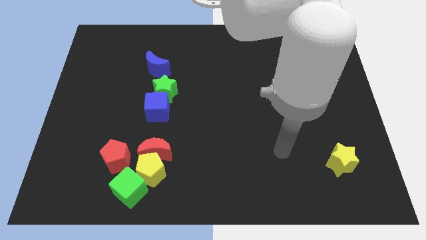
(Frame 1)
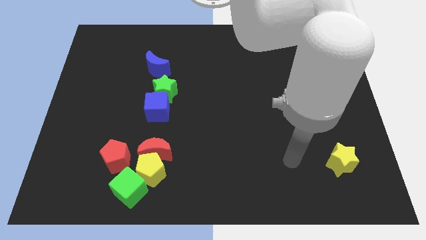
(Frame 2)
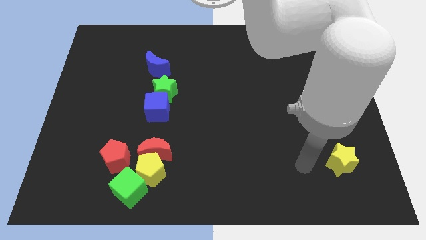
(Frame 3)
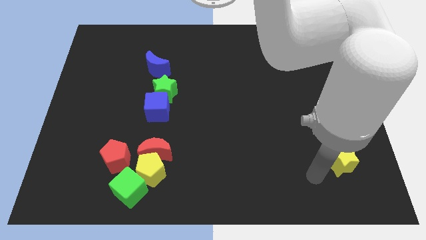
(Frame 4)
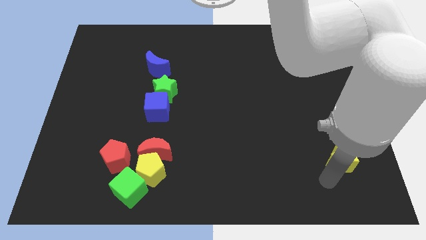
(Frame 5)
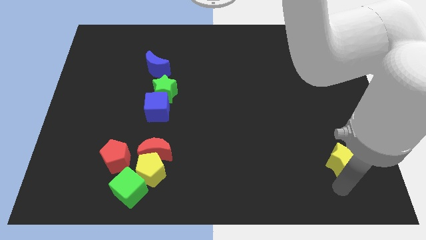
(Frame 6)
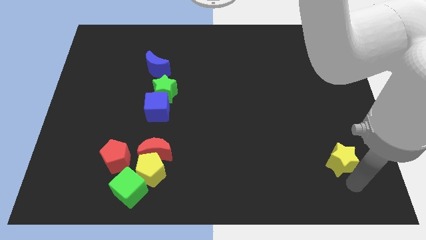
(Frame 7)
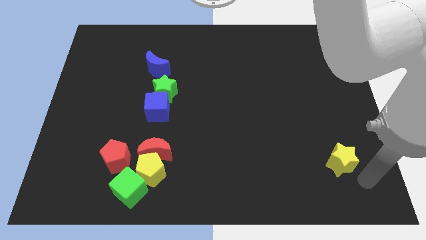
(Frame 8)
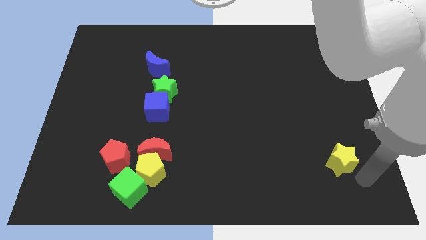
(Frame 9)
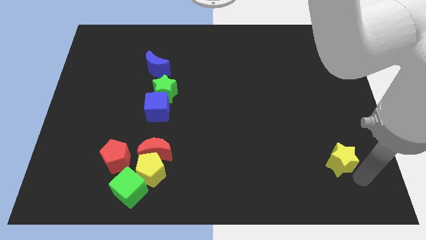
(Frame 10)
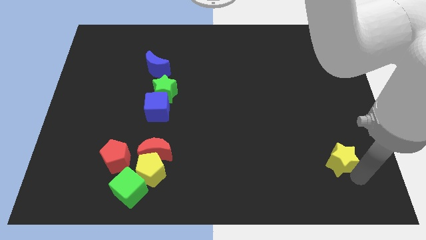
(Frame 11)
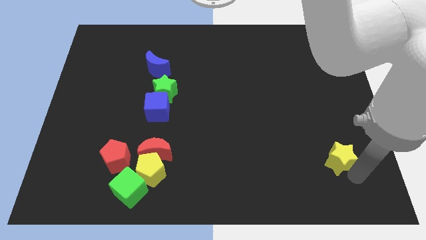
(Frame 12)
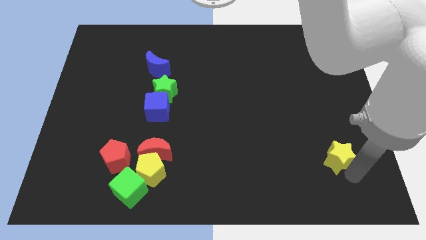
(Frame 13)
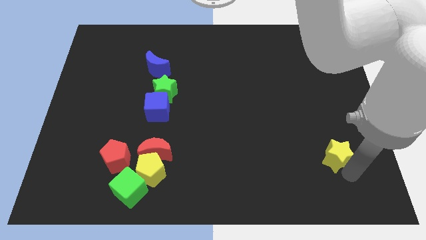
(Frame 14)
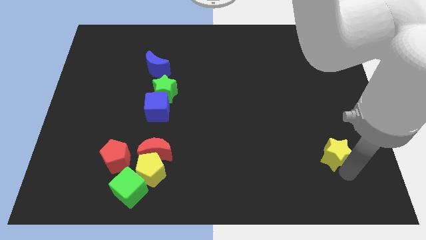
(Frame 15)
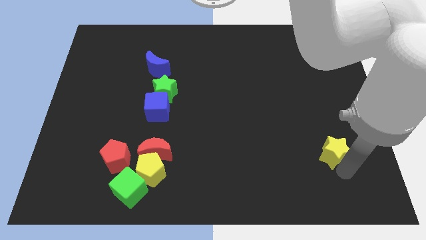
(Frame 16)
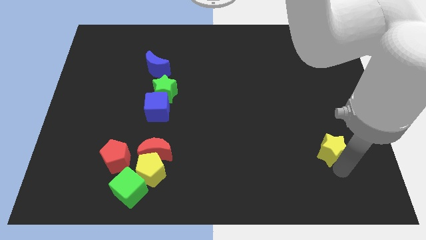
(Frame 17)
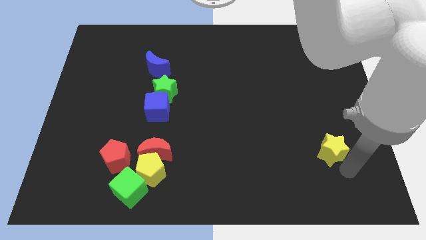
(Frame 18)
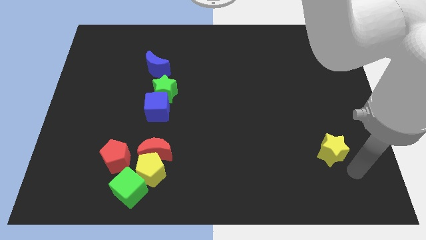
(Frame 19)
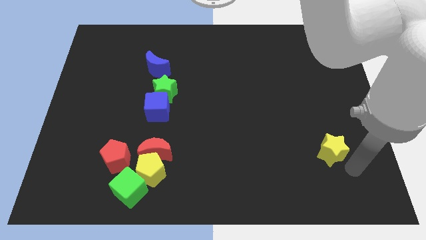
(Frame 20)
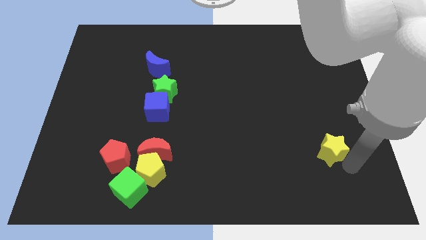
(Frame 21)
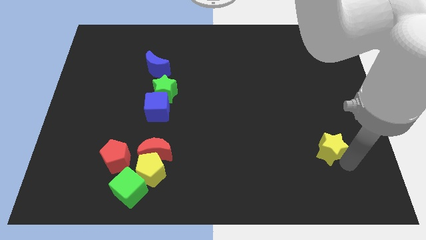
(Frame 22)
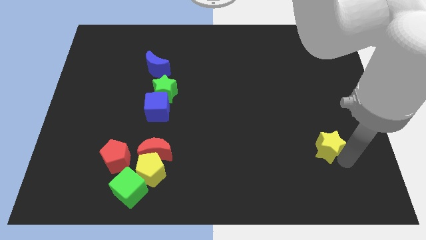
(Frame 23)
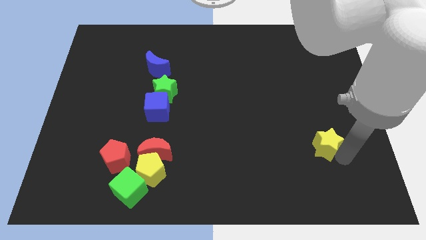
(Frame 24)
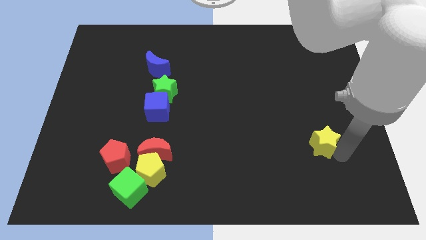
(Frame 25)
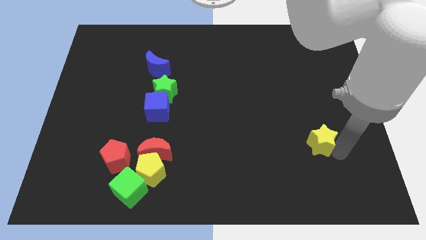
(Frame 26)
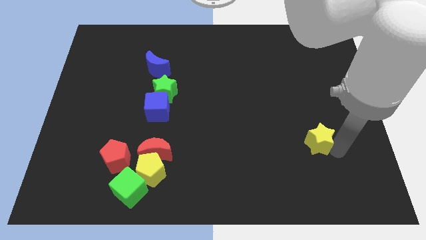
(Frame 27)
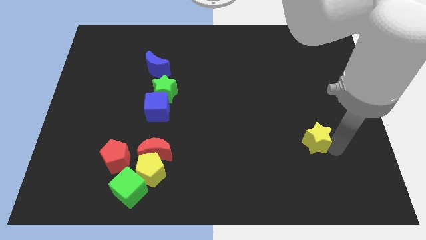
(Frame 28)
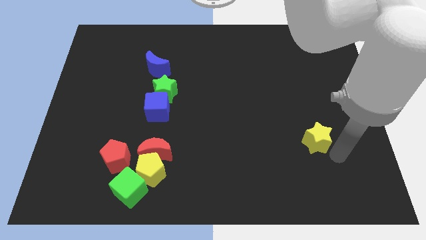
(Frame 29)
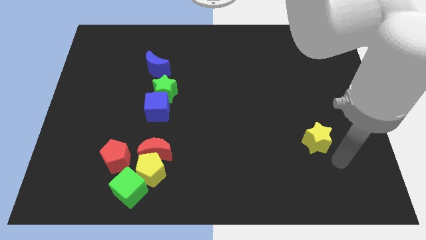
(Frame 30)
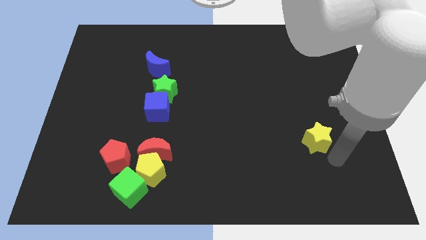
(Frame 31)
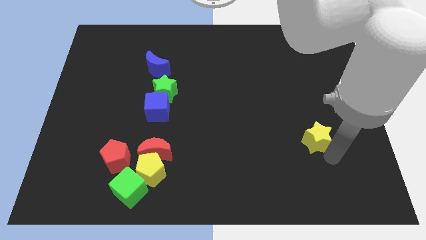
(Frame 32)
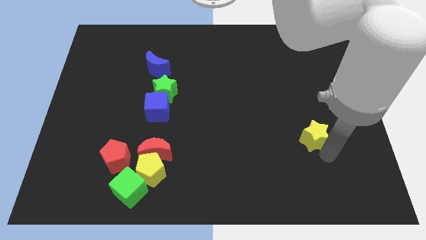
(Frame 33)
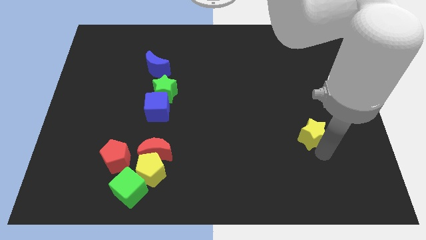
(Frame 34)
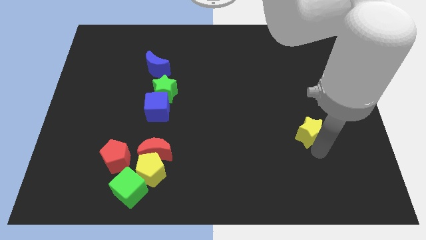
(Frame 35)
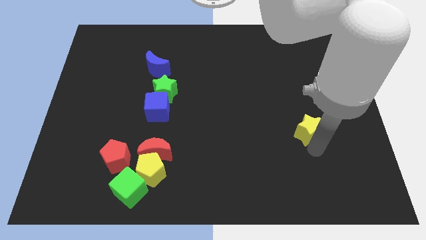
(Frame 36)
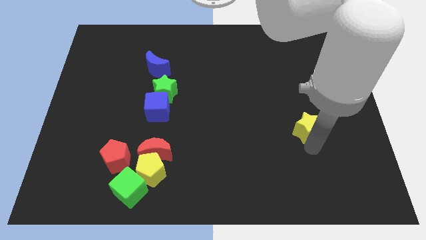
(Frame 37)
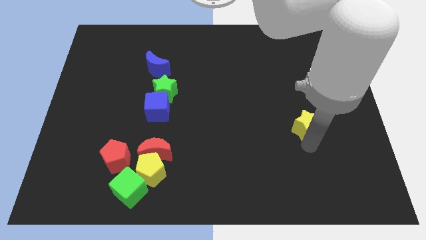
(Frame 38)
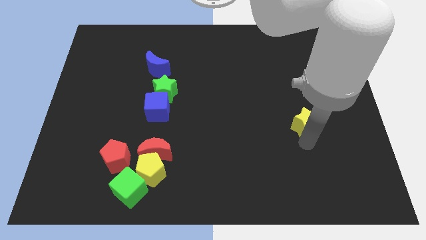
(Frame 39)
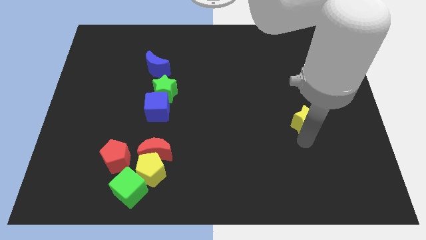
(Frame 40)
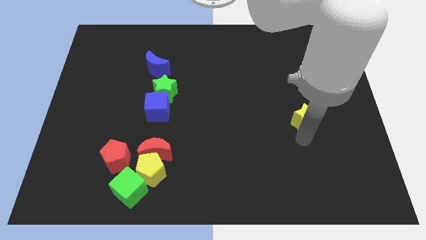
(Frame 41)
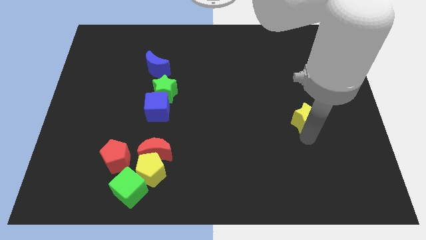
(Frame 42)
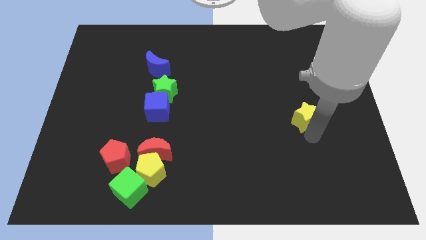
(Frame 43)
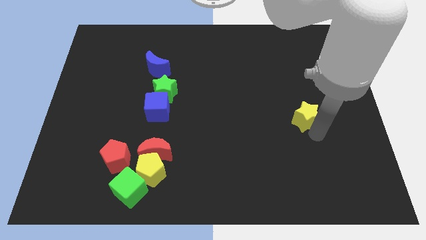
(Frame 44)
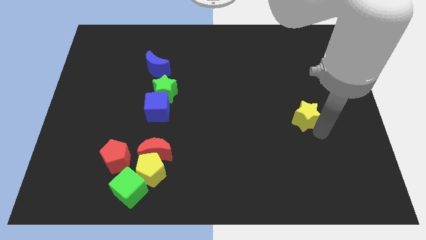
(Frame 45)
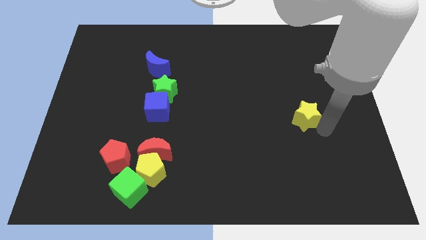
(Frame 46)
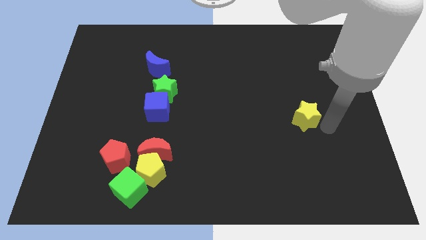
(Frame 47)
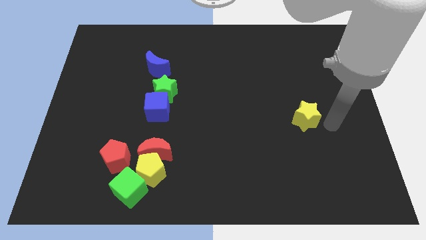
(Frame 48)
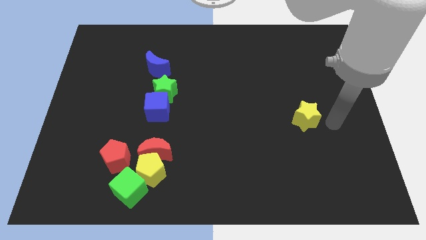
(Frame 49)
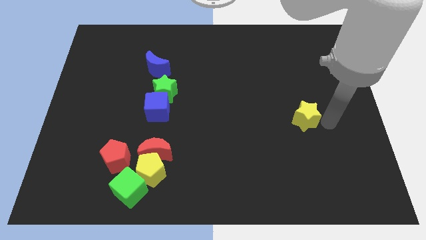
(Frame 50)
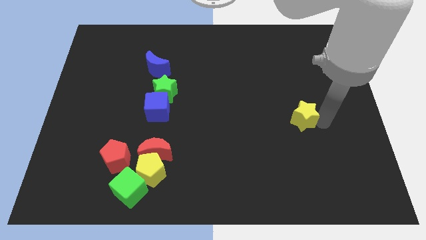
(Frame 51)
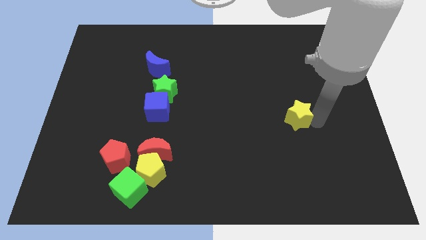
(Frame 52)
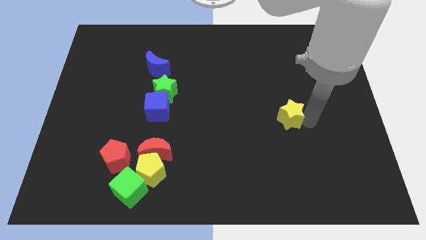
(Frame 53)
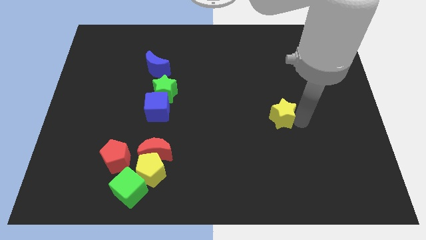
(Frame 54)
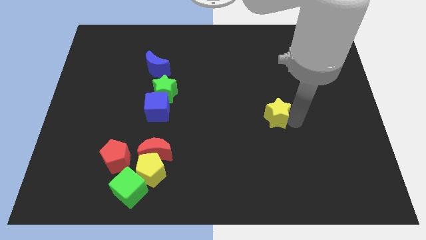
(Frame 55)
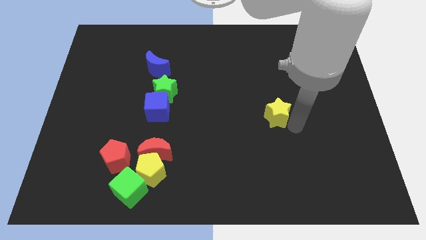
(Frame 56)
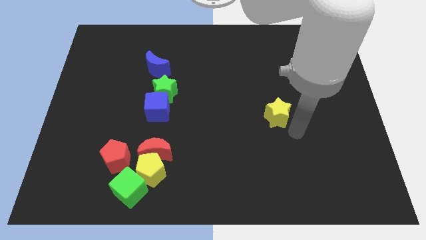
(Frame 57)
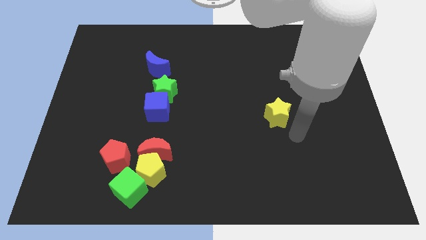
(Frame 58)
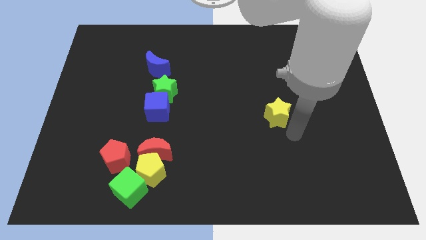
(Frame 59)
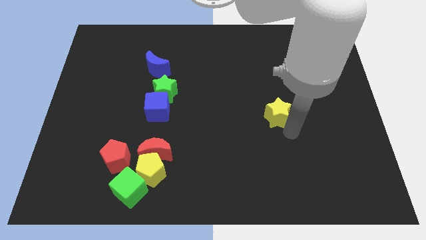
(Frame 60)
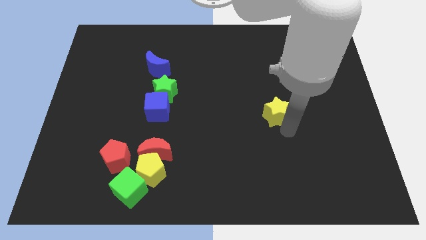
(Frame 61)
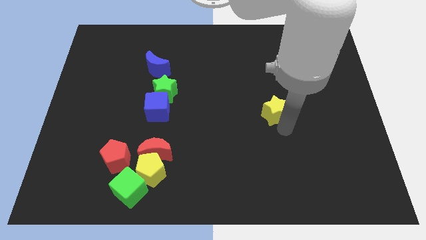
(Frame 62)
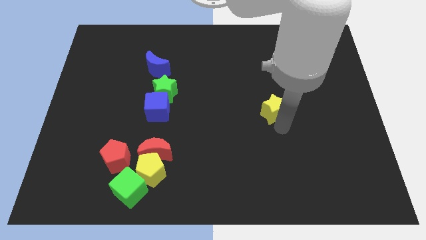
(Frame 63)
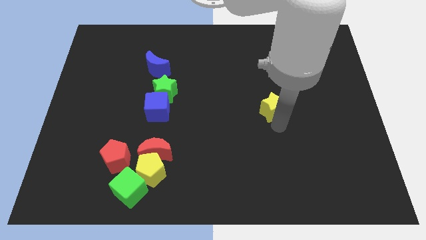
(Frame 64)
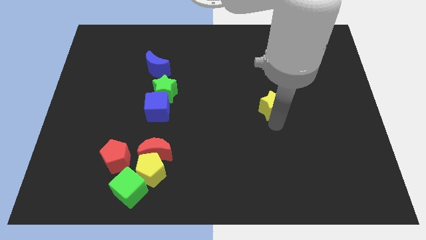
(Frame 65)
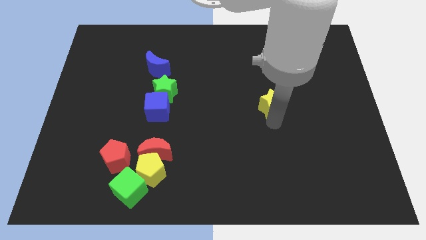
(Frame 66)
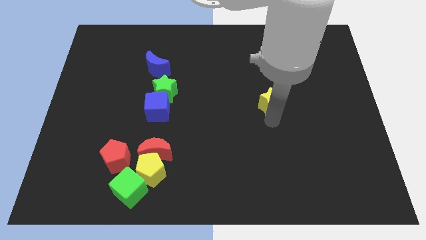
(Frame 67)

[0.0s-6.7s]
slide the yellow star upwards and to the left diagonally

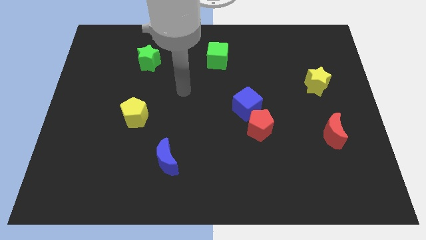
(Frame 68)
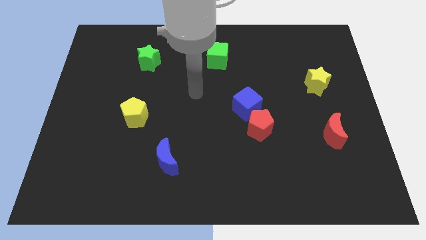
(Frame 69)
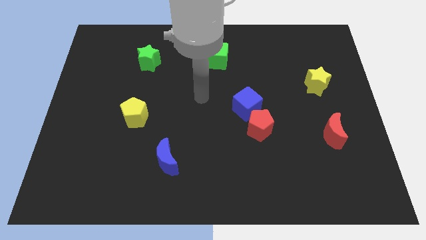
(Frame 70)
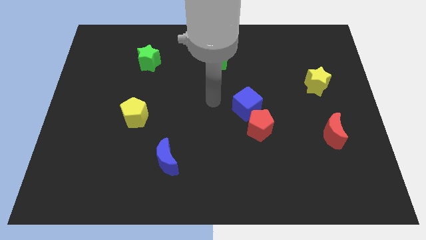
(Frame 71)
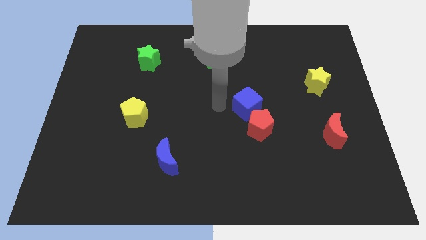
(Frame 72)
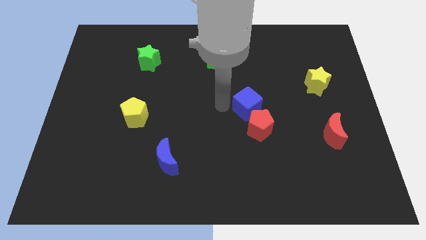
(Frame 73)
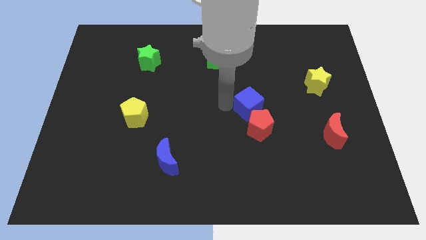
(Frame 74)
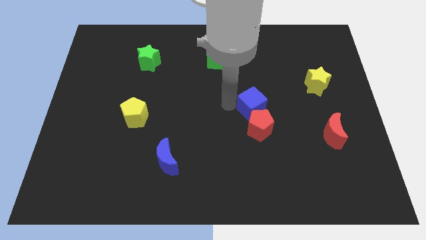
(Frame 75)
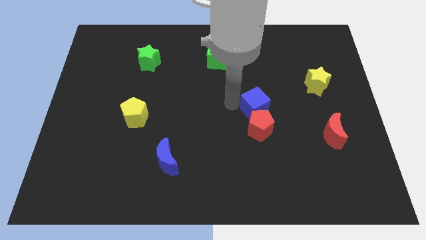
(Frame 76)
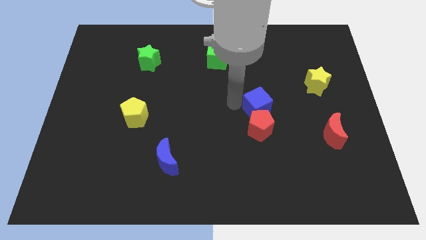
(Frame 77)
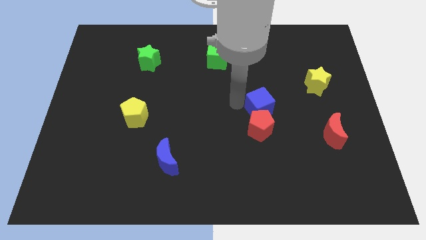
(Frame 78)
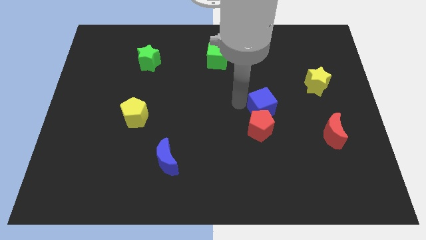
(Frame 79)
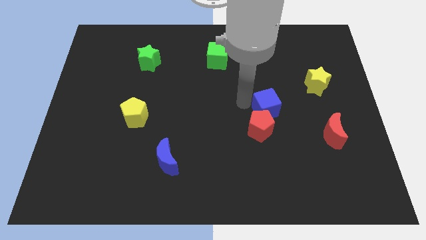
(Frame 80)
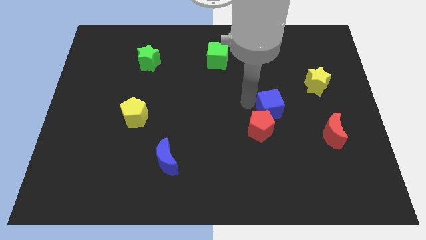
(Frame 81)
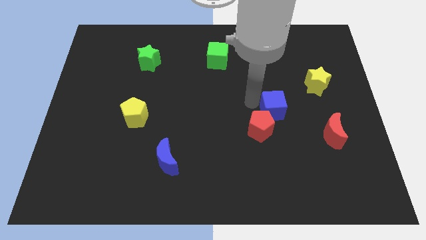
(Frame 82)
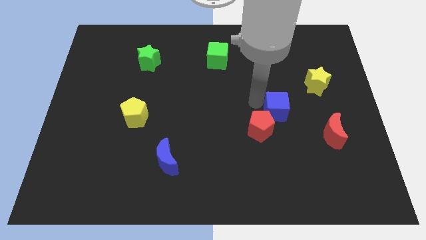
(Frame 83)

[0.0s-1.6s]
push the blue cube slightly to the right

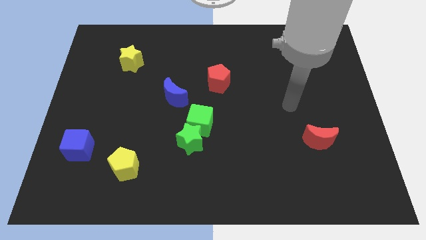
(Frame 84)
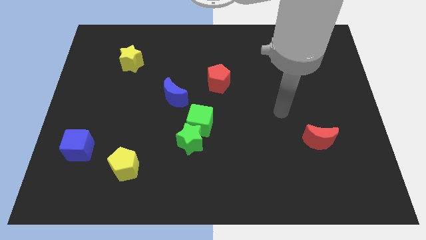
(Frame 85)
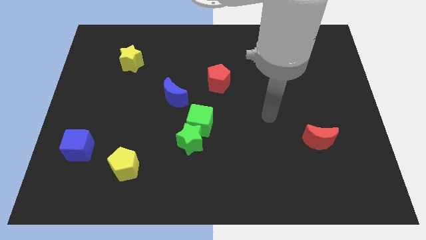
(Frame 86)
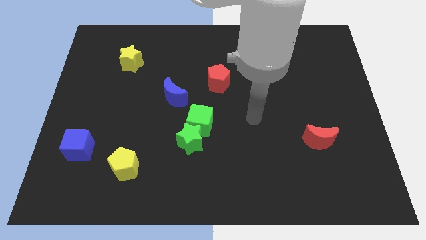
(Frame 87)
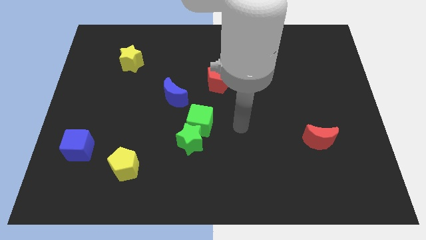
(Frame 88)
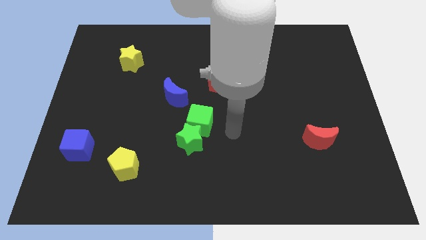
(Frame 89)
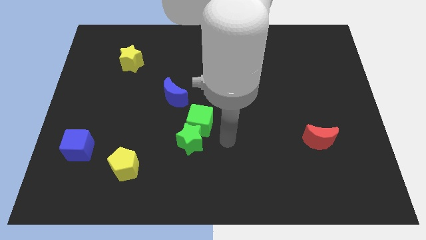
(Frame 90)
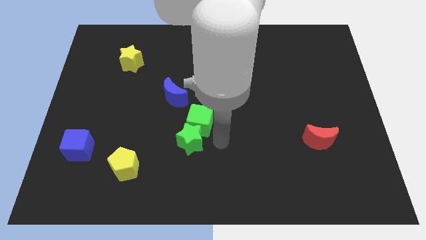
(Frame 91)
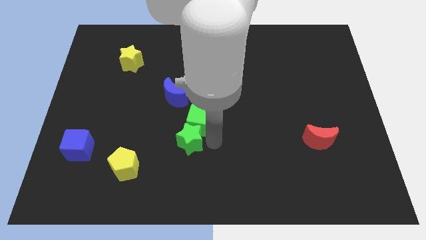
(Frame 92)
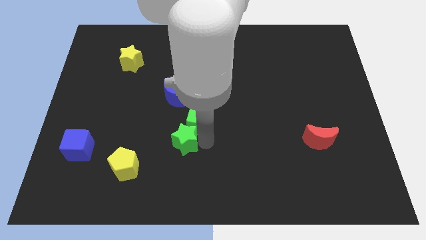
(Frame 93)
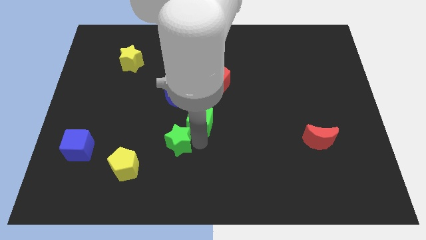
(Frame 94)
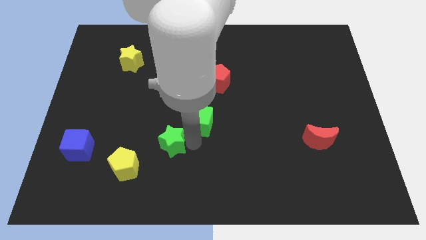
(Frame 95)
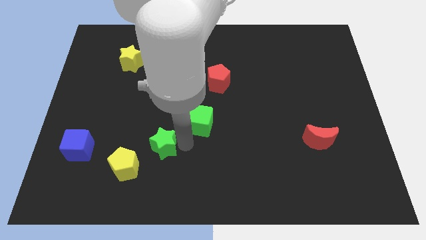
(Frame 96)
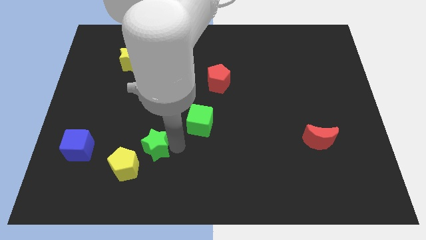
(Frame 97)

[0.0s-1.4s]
move the green star somewhat left
